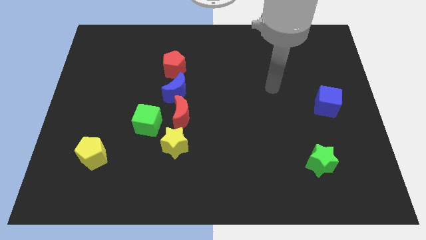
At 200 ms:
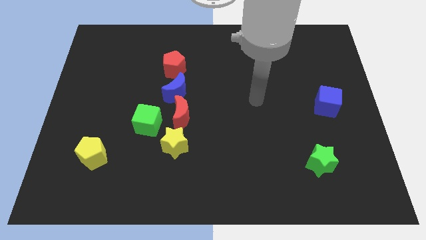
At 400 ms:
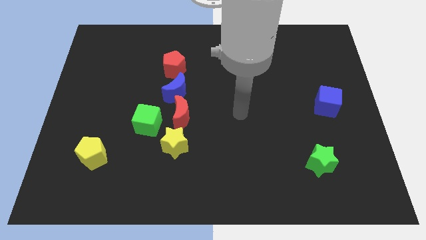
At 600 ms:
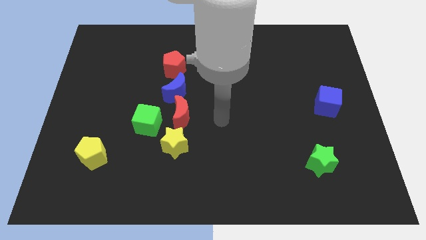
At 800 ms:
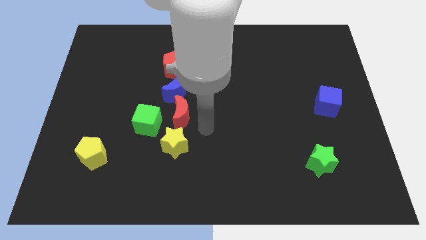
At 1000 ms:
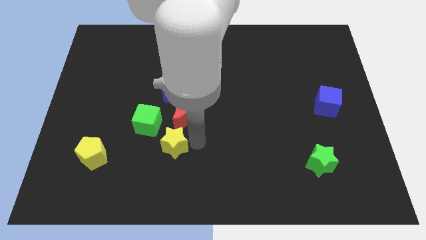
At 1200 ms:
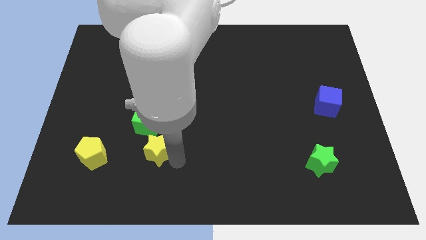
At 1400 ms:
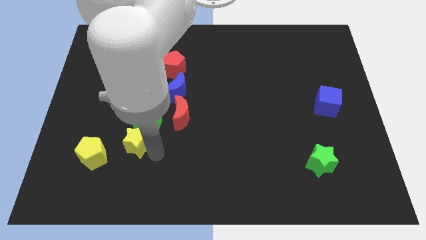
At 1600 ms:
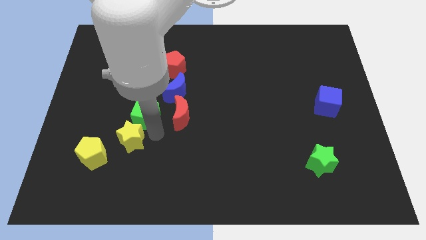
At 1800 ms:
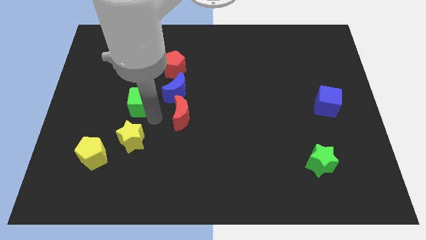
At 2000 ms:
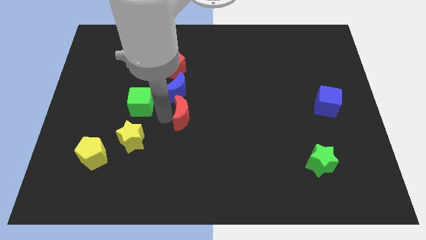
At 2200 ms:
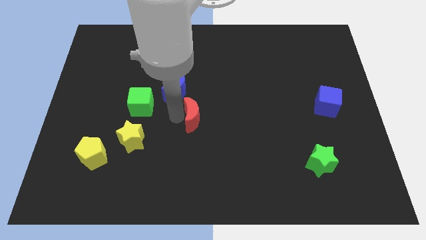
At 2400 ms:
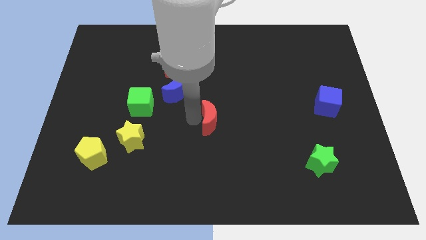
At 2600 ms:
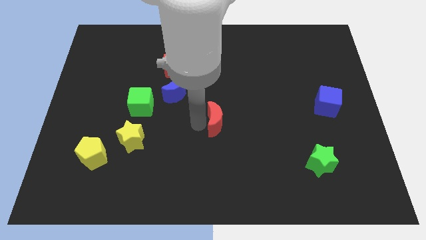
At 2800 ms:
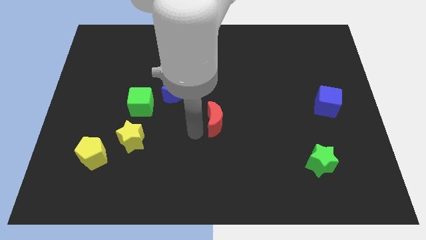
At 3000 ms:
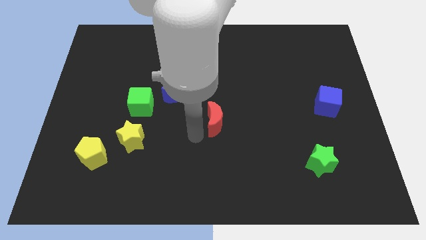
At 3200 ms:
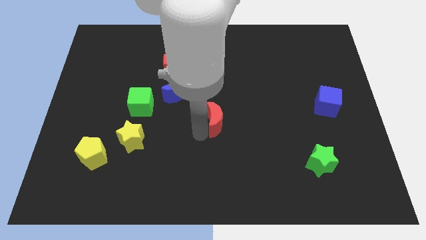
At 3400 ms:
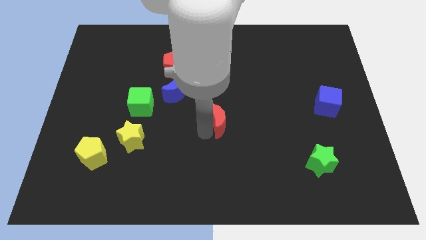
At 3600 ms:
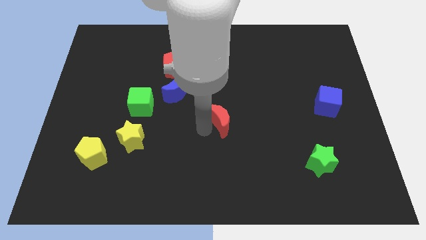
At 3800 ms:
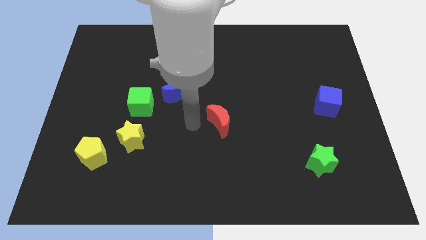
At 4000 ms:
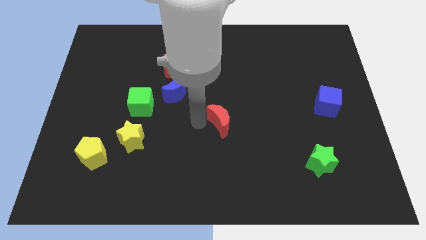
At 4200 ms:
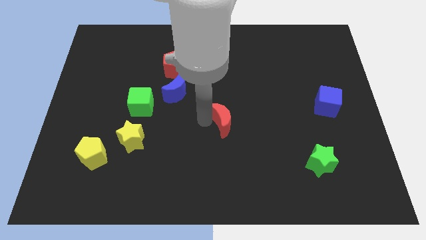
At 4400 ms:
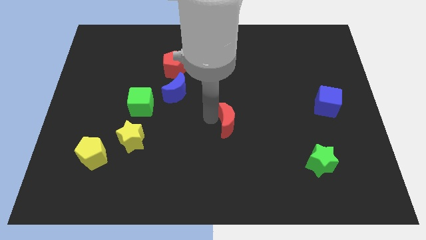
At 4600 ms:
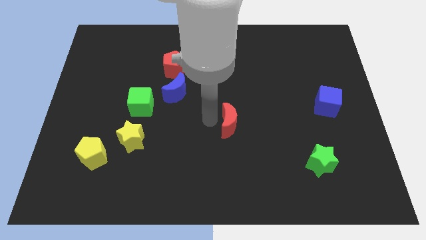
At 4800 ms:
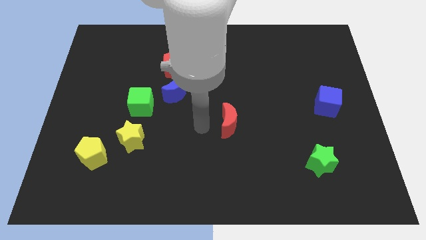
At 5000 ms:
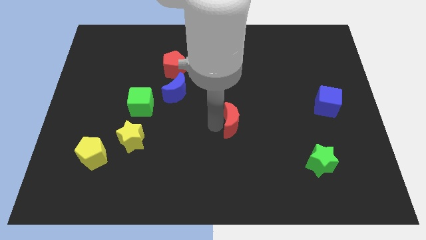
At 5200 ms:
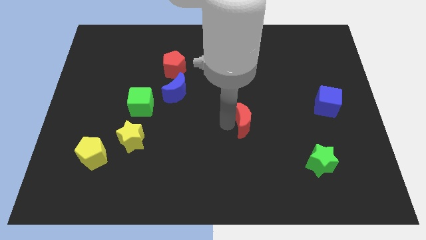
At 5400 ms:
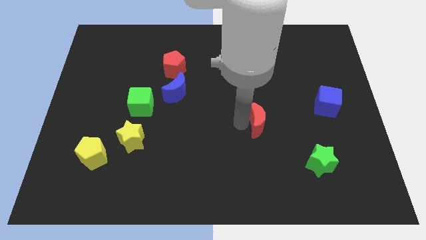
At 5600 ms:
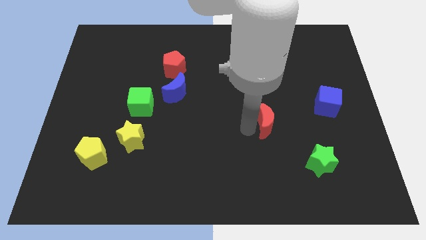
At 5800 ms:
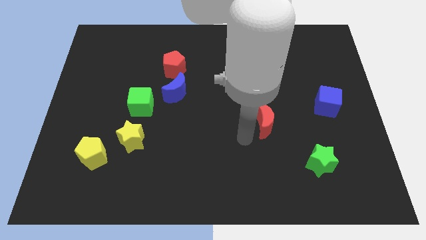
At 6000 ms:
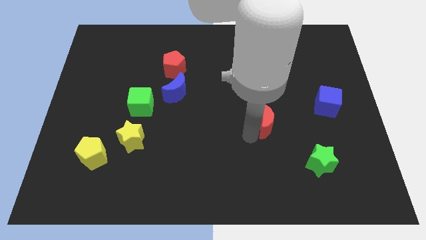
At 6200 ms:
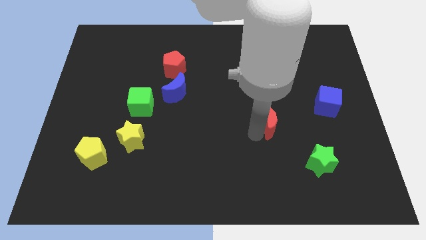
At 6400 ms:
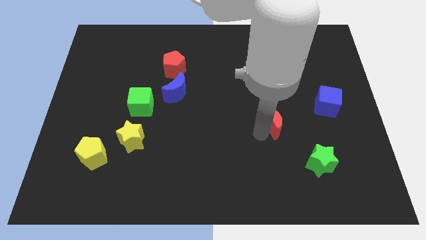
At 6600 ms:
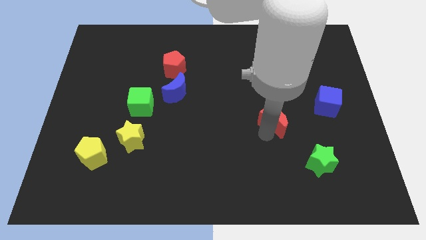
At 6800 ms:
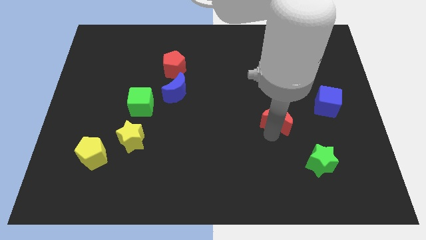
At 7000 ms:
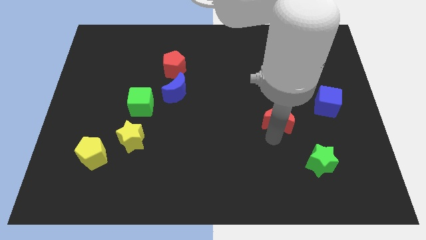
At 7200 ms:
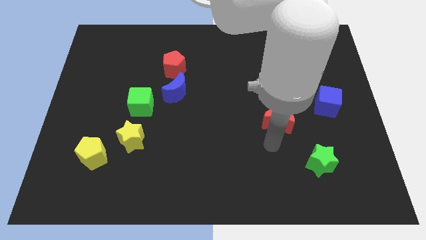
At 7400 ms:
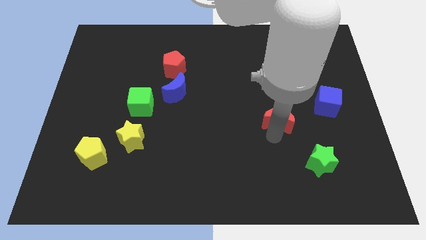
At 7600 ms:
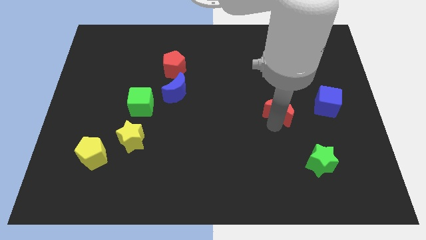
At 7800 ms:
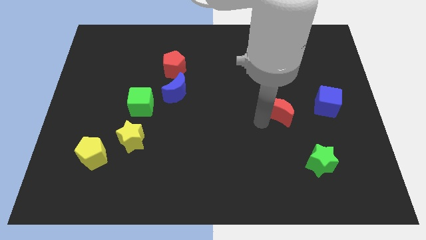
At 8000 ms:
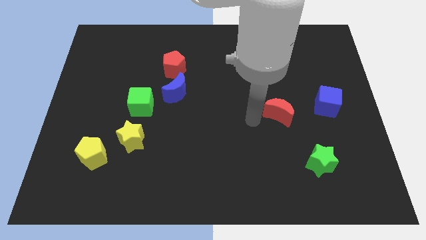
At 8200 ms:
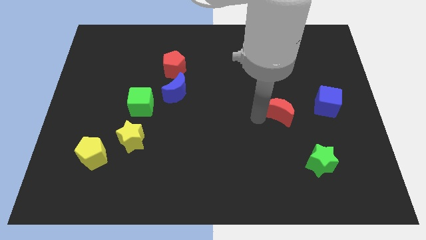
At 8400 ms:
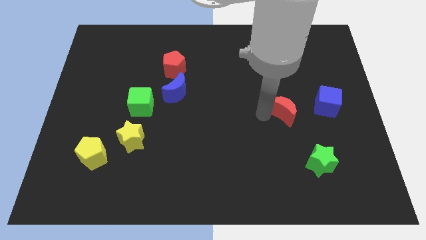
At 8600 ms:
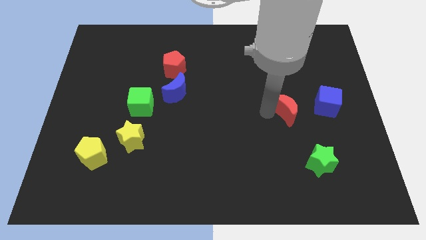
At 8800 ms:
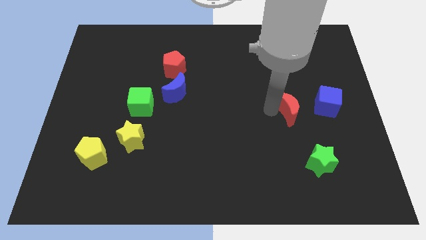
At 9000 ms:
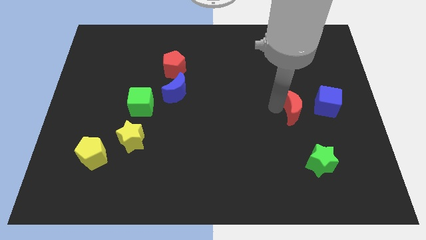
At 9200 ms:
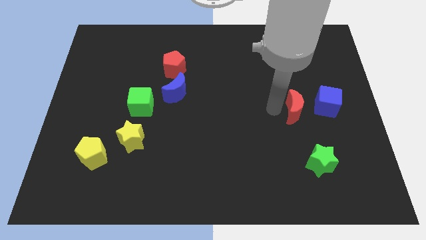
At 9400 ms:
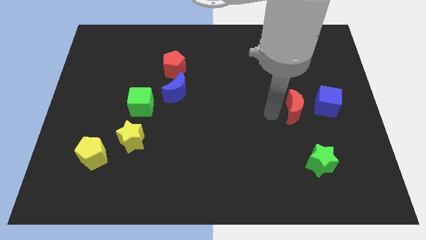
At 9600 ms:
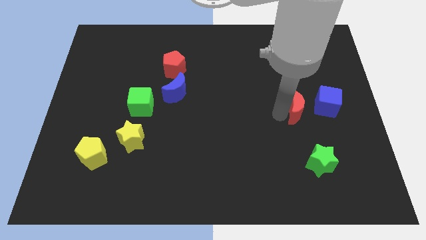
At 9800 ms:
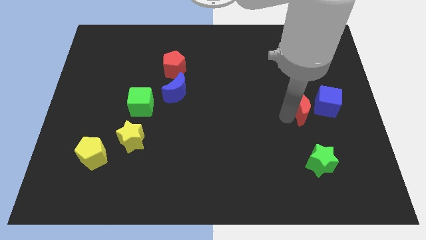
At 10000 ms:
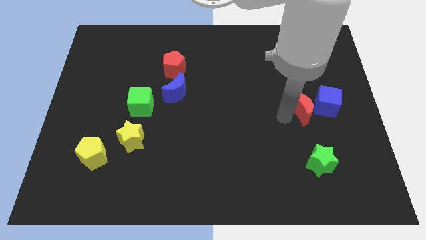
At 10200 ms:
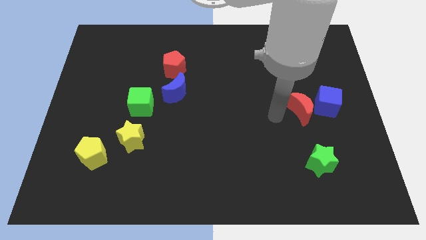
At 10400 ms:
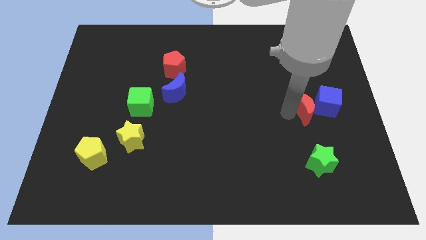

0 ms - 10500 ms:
move the red moon to the blue cube

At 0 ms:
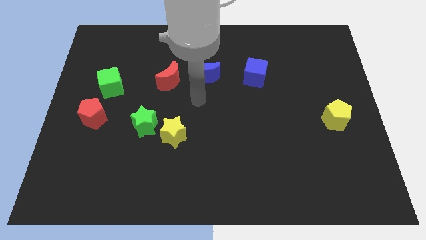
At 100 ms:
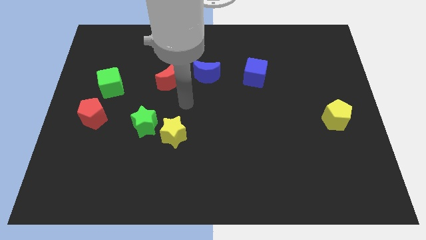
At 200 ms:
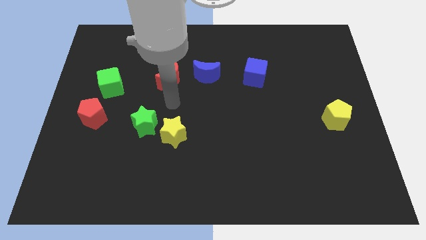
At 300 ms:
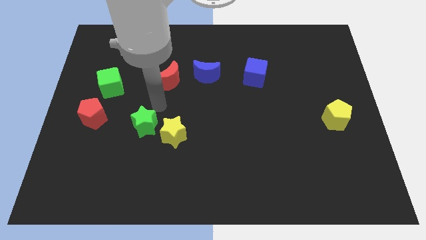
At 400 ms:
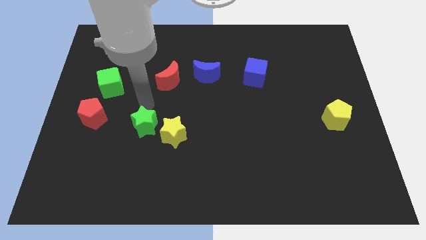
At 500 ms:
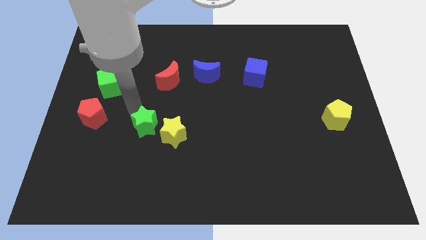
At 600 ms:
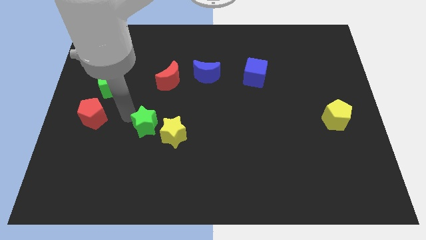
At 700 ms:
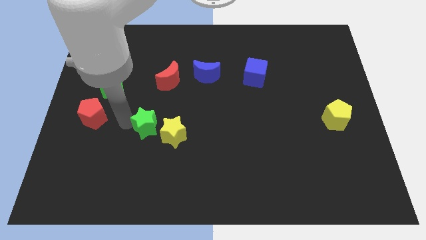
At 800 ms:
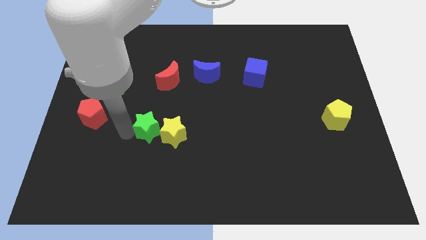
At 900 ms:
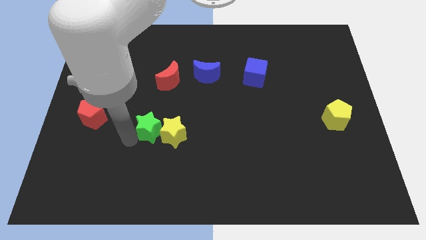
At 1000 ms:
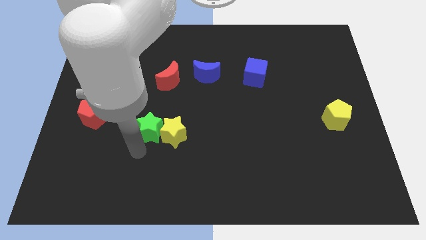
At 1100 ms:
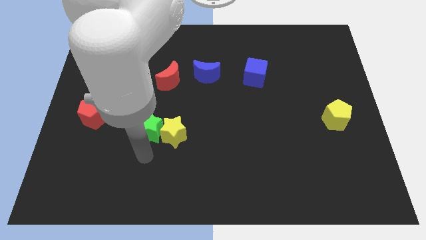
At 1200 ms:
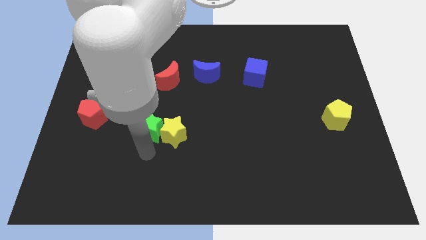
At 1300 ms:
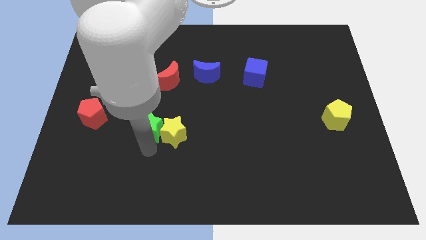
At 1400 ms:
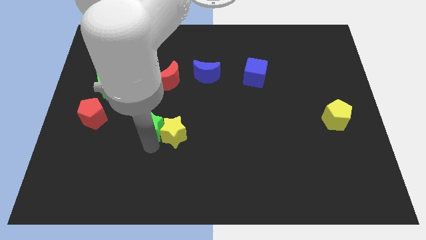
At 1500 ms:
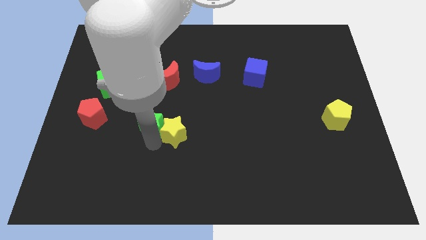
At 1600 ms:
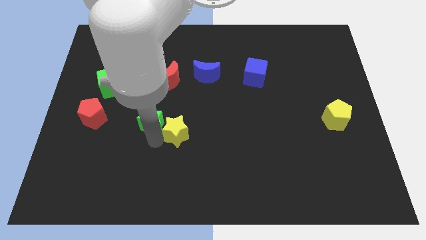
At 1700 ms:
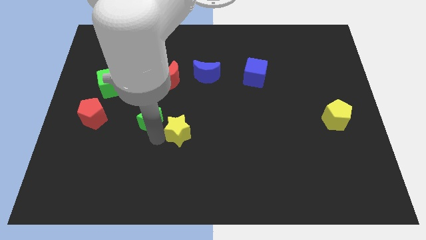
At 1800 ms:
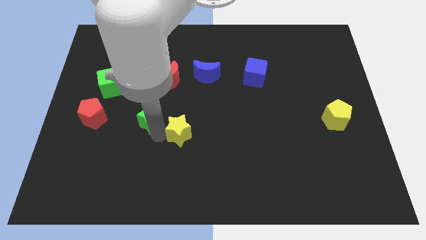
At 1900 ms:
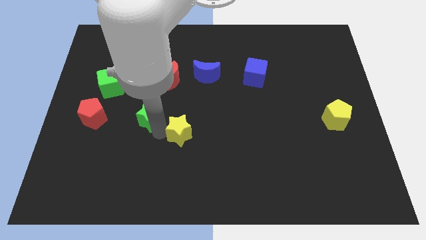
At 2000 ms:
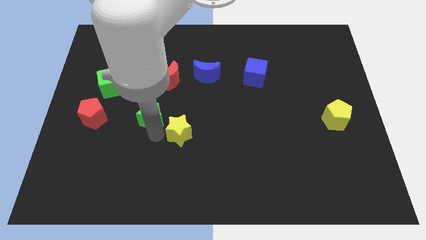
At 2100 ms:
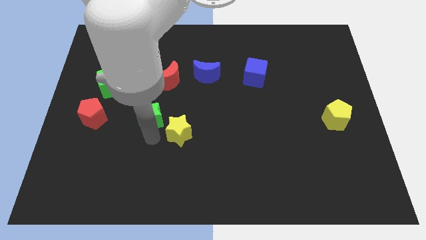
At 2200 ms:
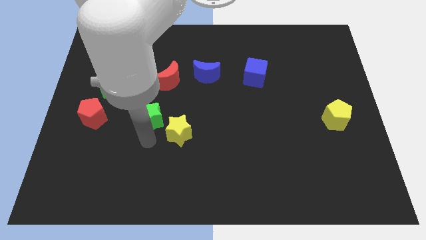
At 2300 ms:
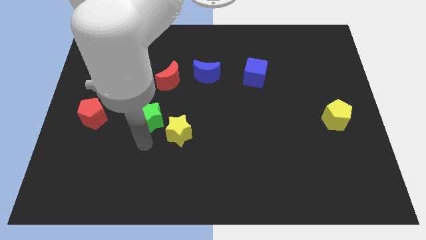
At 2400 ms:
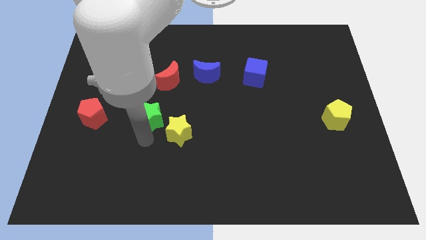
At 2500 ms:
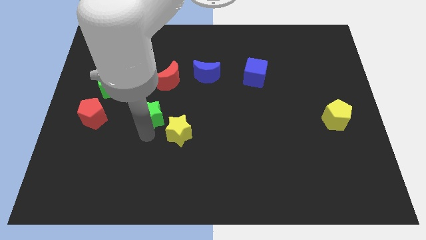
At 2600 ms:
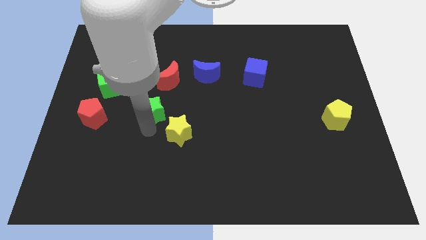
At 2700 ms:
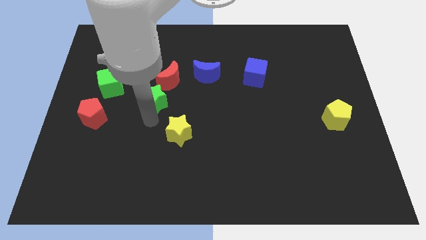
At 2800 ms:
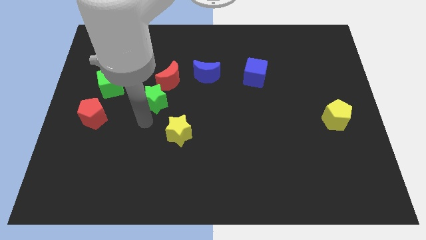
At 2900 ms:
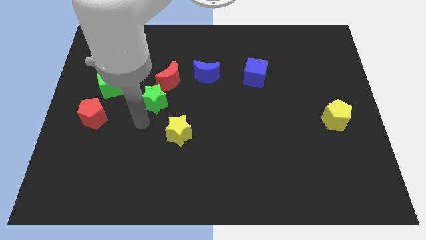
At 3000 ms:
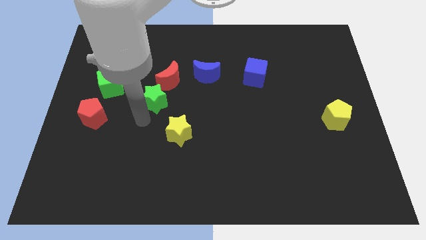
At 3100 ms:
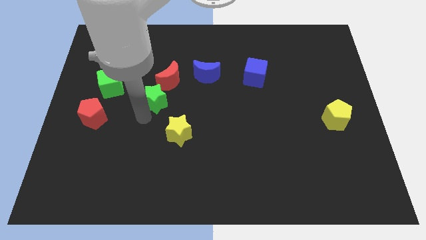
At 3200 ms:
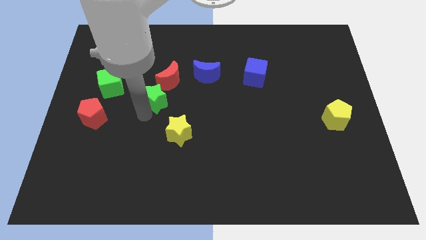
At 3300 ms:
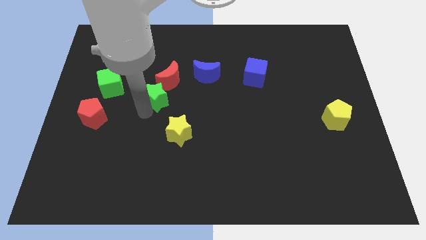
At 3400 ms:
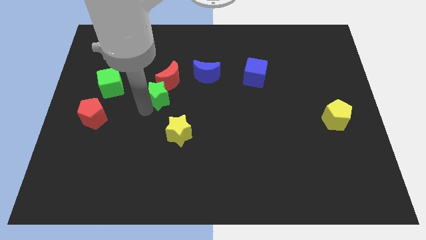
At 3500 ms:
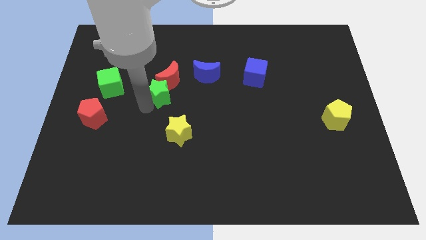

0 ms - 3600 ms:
slide the green star to the red moon
